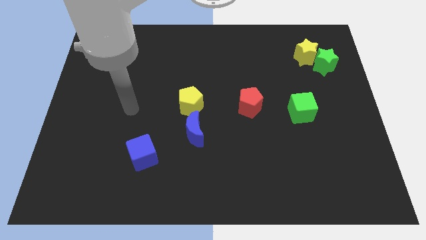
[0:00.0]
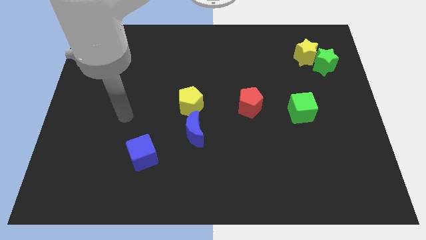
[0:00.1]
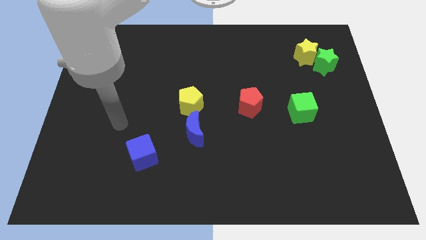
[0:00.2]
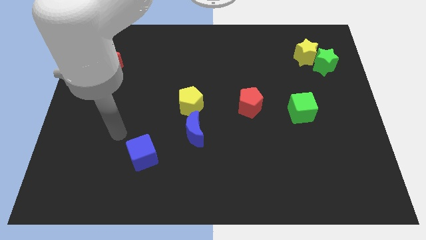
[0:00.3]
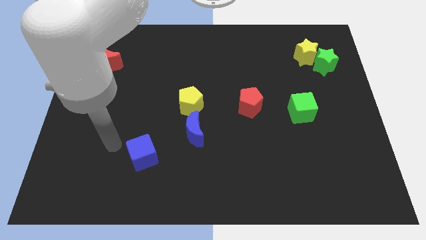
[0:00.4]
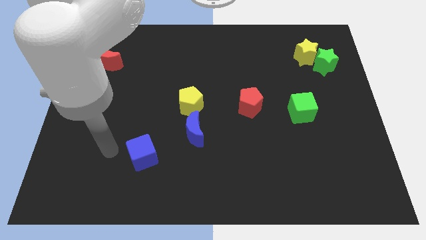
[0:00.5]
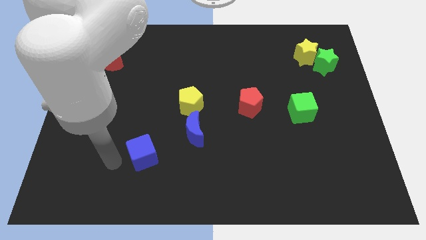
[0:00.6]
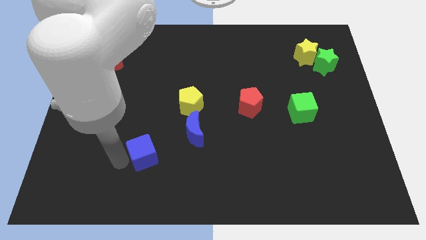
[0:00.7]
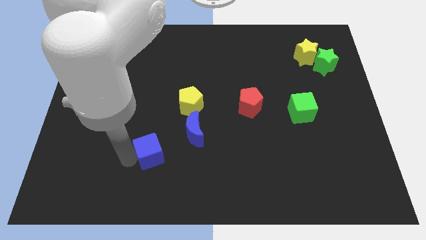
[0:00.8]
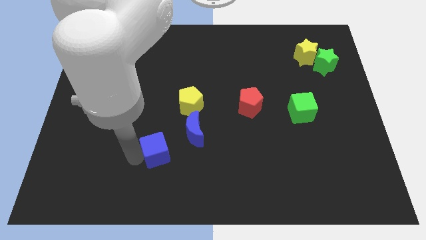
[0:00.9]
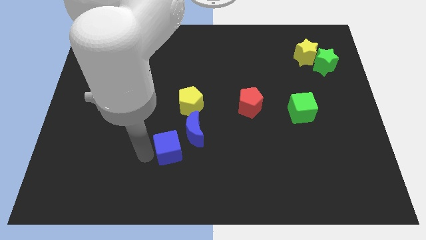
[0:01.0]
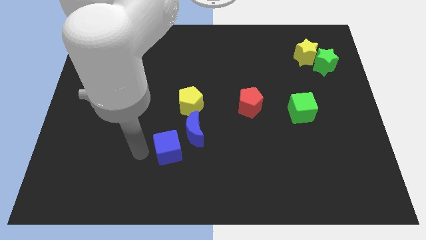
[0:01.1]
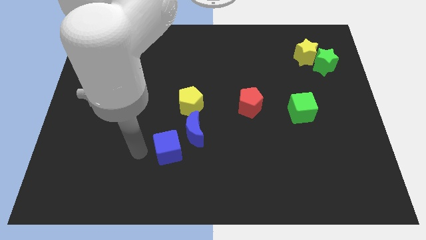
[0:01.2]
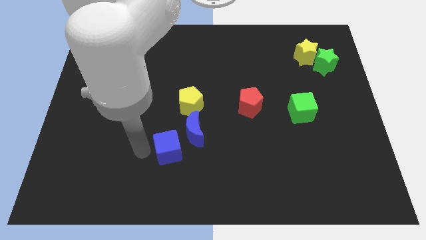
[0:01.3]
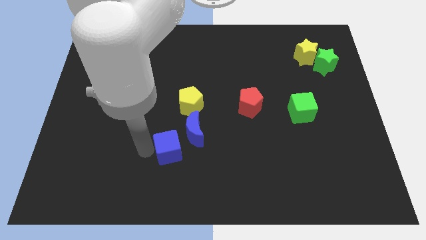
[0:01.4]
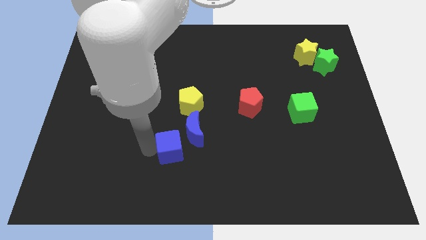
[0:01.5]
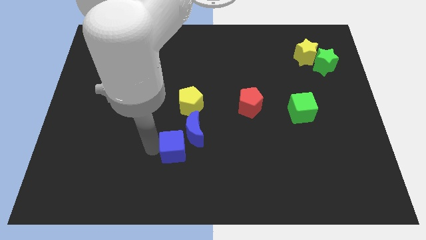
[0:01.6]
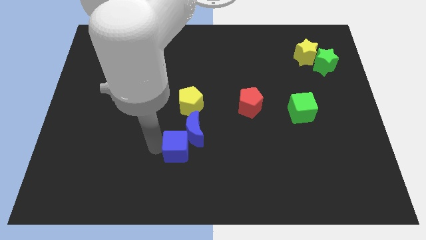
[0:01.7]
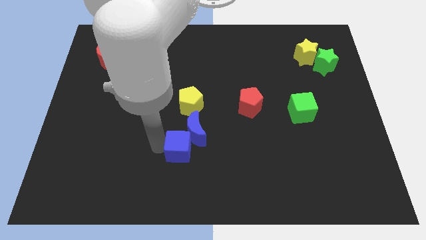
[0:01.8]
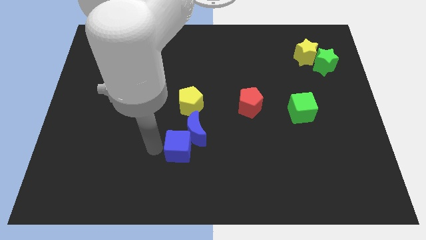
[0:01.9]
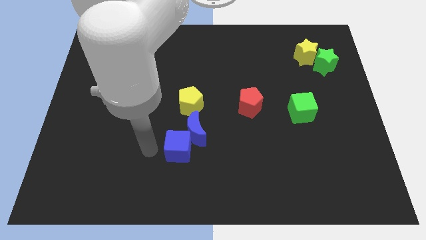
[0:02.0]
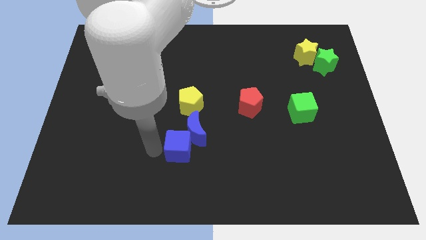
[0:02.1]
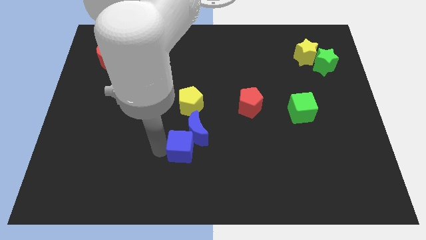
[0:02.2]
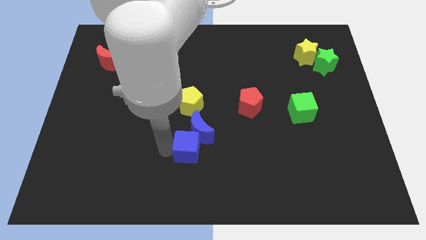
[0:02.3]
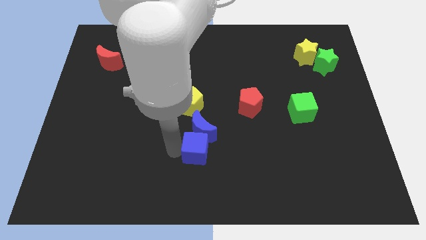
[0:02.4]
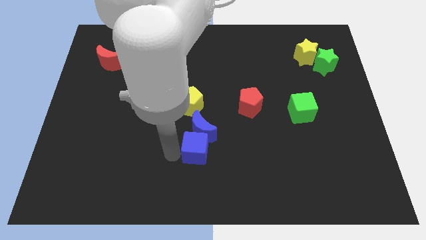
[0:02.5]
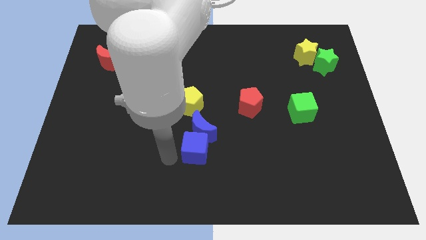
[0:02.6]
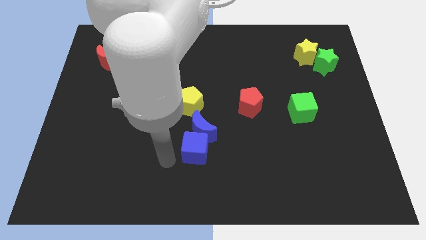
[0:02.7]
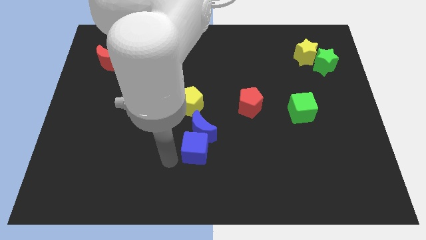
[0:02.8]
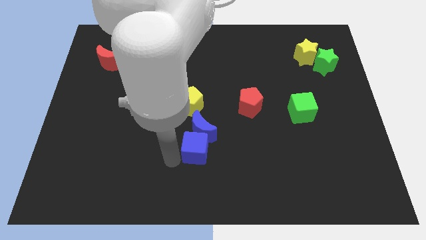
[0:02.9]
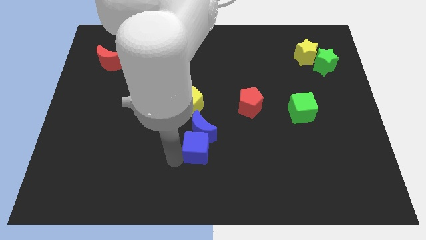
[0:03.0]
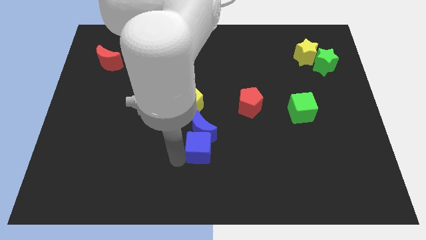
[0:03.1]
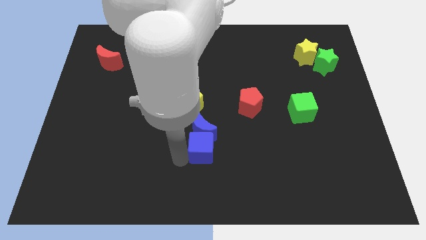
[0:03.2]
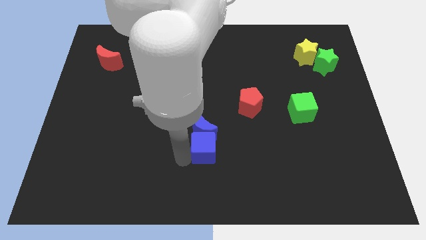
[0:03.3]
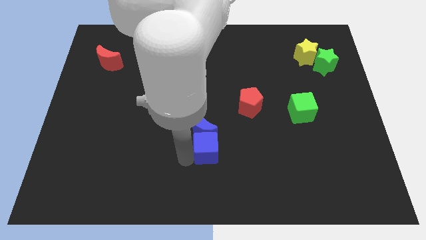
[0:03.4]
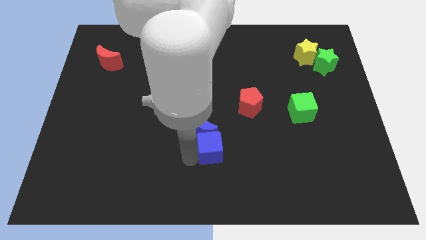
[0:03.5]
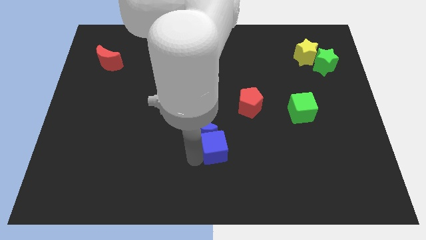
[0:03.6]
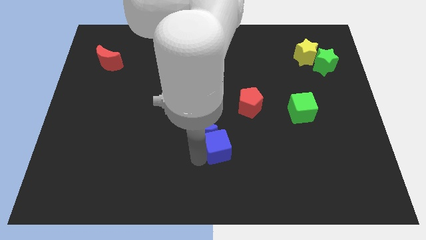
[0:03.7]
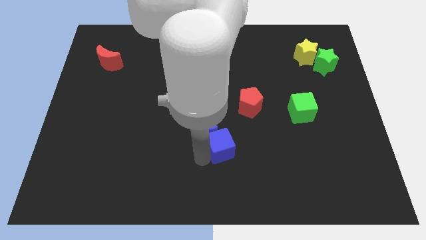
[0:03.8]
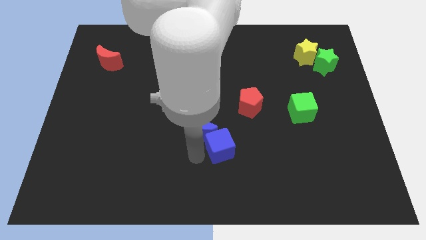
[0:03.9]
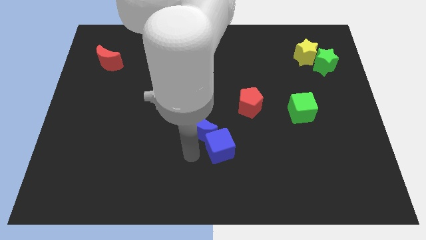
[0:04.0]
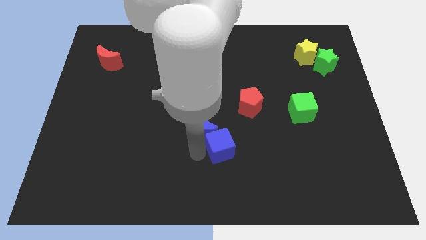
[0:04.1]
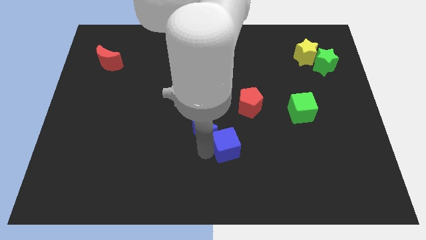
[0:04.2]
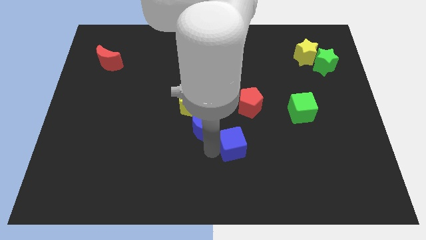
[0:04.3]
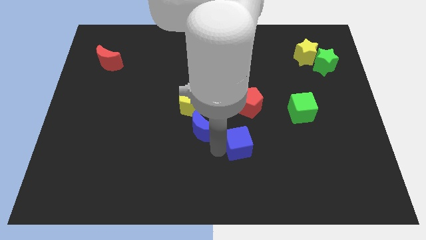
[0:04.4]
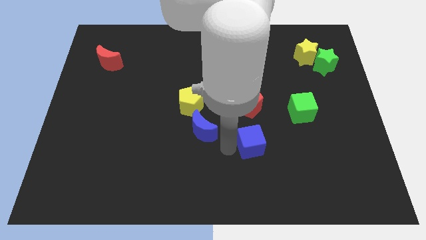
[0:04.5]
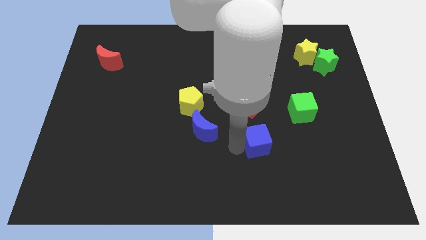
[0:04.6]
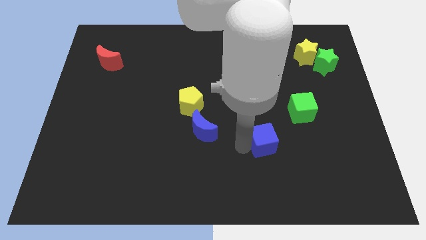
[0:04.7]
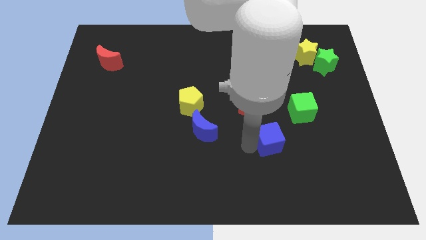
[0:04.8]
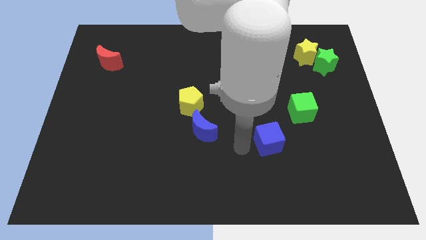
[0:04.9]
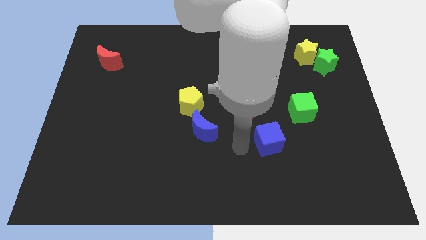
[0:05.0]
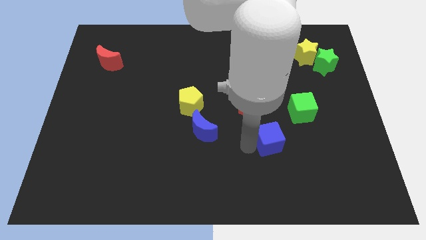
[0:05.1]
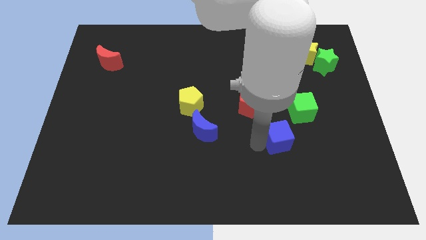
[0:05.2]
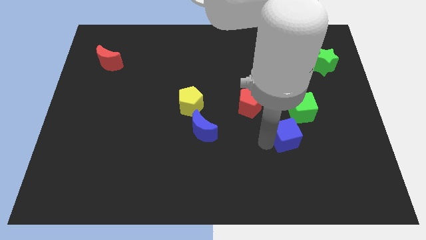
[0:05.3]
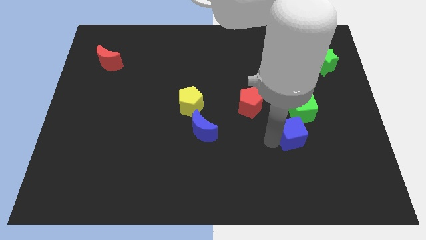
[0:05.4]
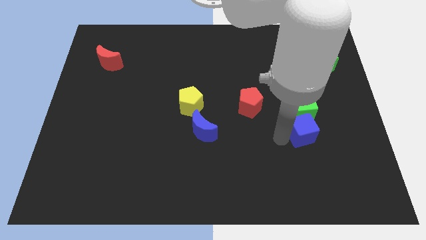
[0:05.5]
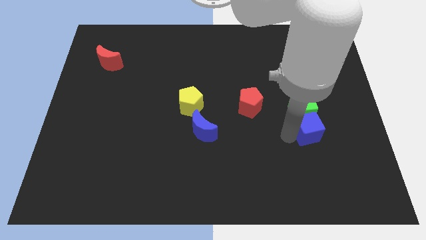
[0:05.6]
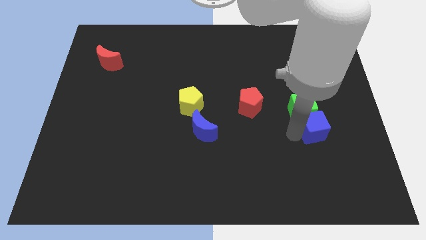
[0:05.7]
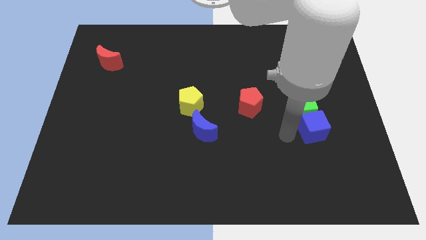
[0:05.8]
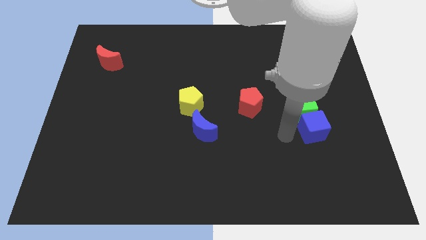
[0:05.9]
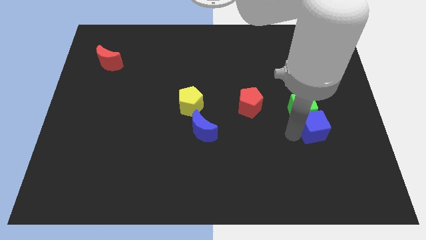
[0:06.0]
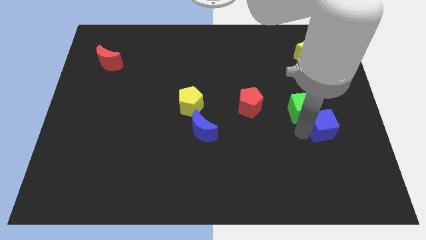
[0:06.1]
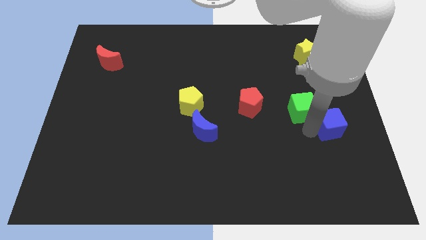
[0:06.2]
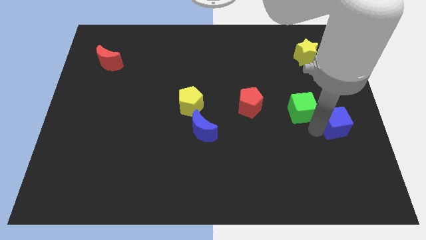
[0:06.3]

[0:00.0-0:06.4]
slide the blue cube to the center right
